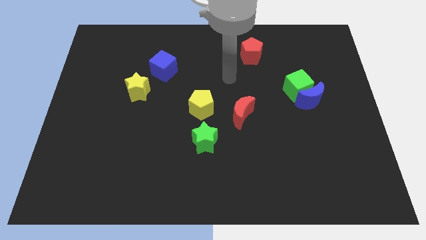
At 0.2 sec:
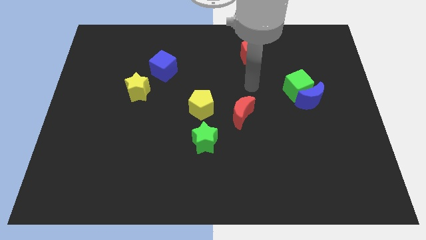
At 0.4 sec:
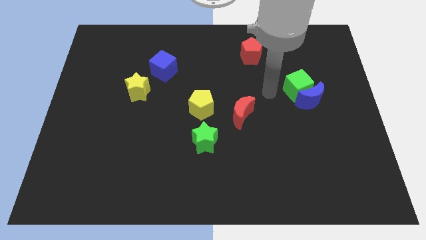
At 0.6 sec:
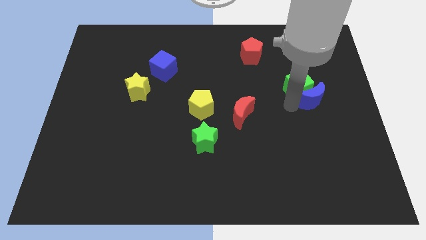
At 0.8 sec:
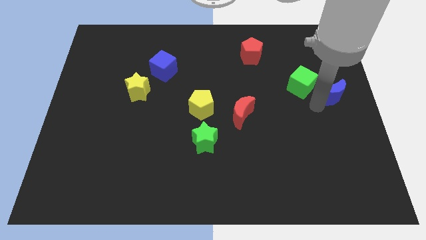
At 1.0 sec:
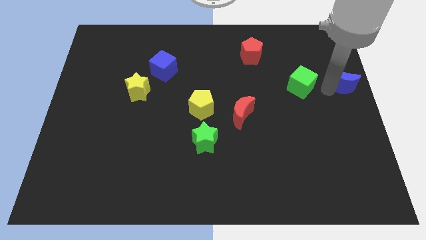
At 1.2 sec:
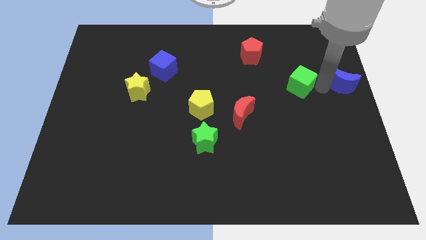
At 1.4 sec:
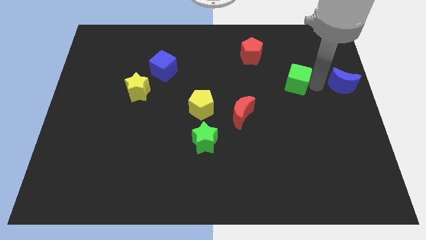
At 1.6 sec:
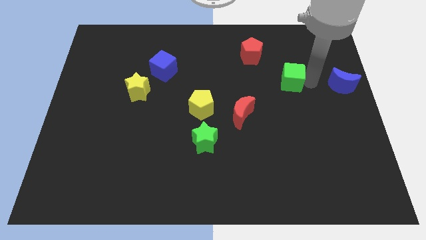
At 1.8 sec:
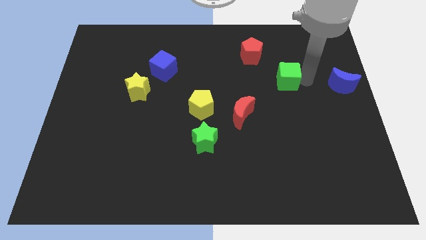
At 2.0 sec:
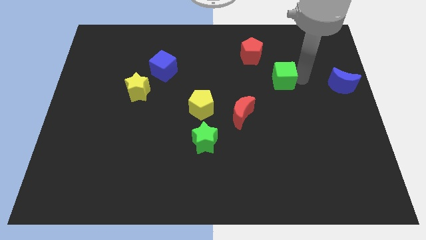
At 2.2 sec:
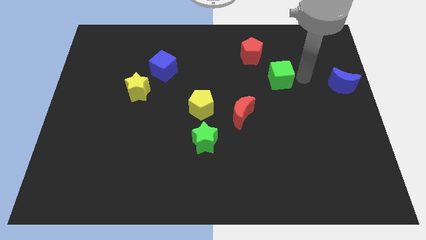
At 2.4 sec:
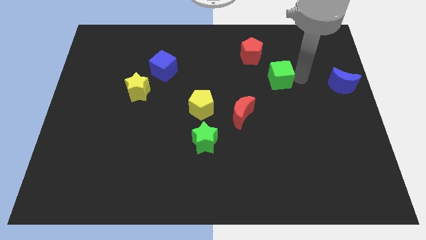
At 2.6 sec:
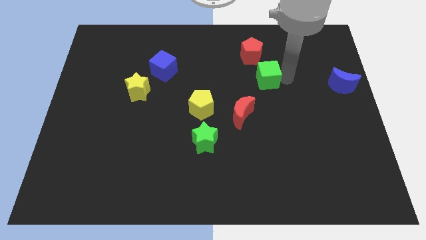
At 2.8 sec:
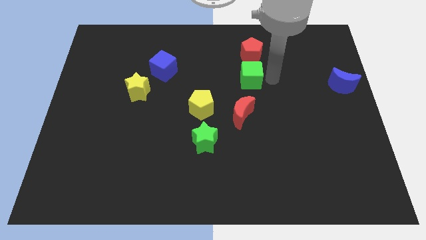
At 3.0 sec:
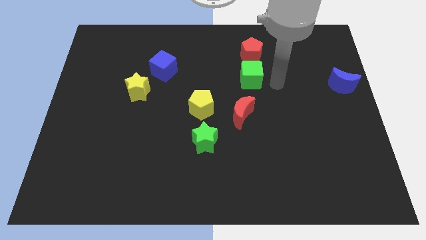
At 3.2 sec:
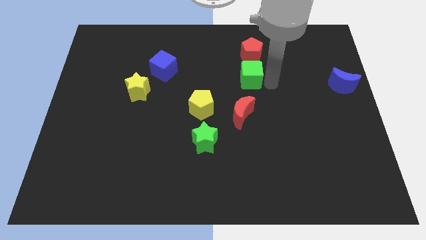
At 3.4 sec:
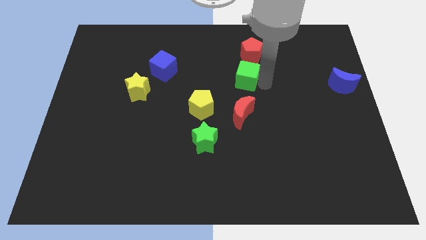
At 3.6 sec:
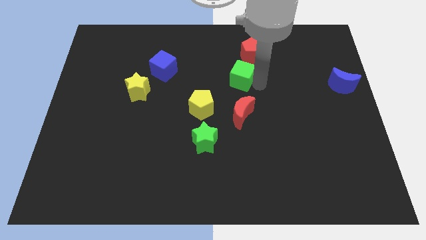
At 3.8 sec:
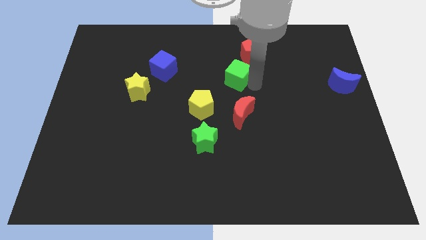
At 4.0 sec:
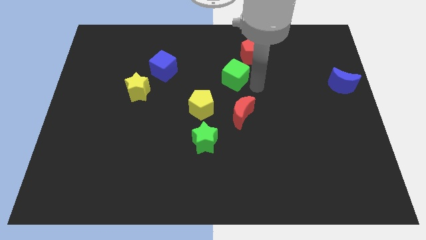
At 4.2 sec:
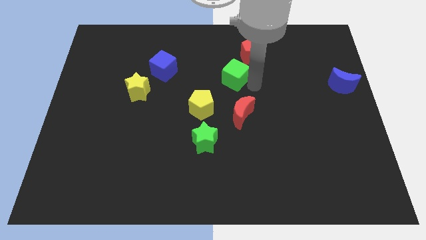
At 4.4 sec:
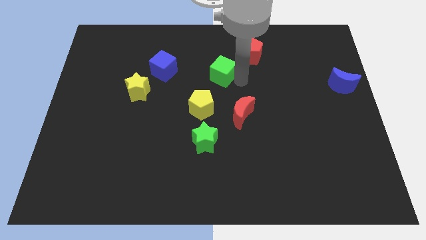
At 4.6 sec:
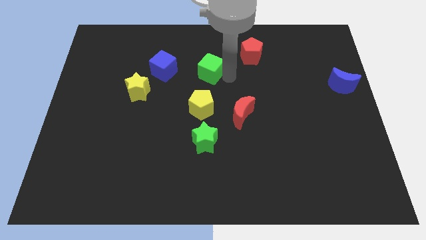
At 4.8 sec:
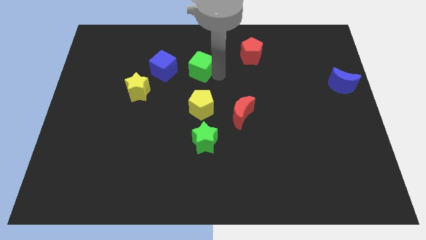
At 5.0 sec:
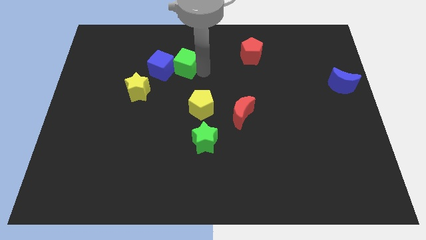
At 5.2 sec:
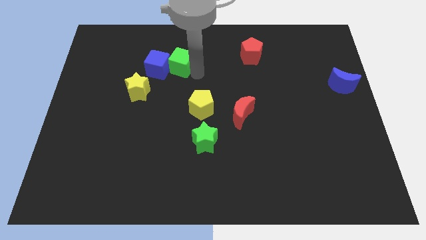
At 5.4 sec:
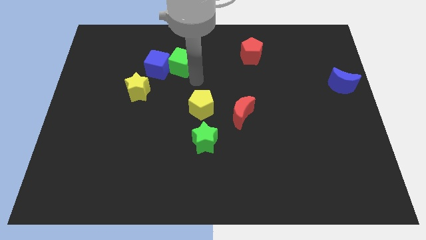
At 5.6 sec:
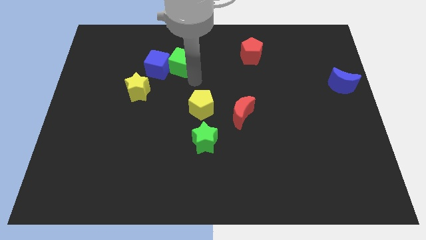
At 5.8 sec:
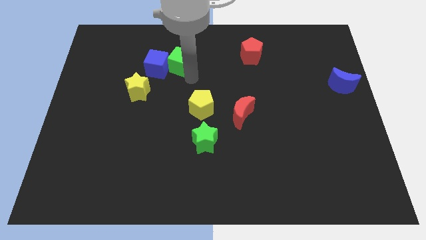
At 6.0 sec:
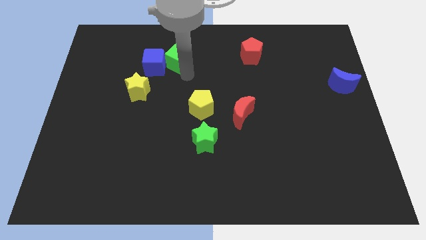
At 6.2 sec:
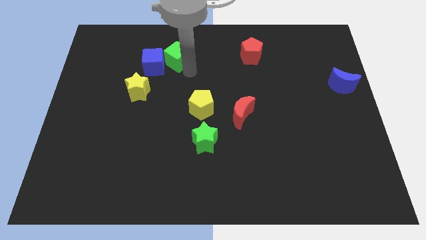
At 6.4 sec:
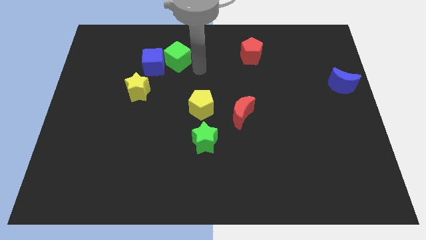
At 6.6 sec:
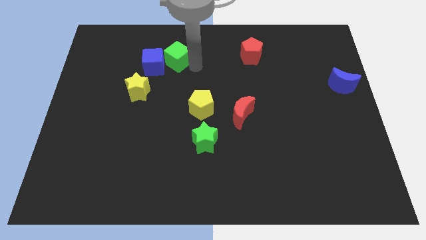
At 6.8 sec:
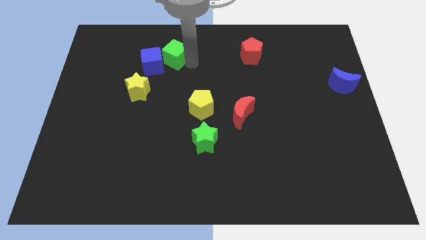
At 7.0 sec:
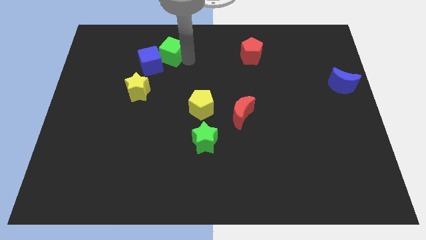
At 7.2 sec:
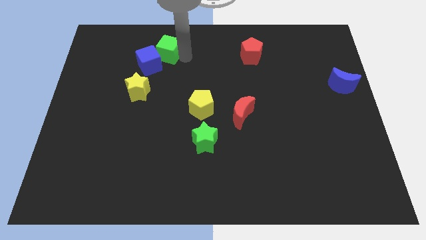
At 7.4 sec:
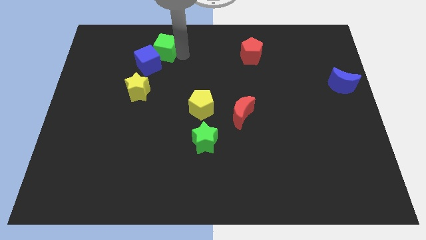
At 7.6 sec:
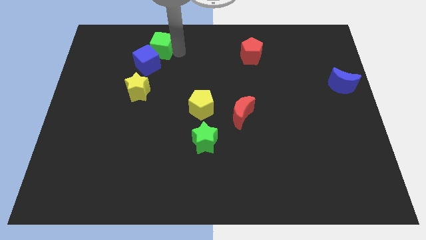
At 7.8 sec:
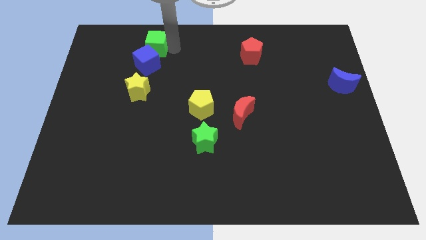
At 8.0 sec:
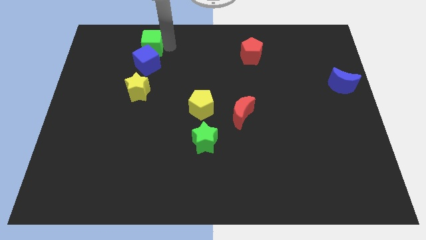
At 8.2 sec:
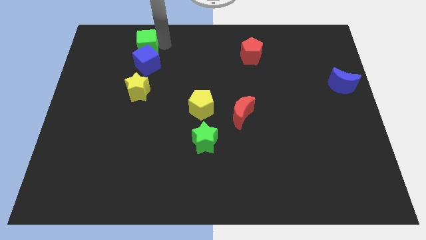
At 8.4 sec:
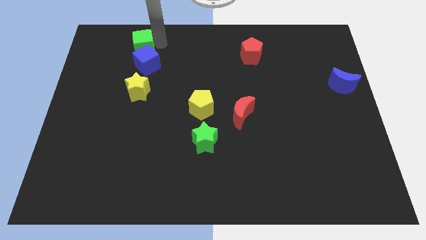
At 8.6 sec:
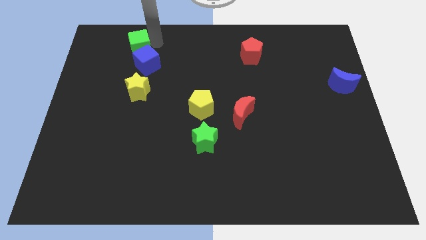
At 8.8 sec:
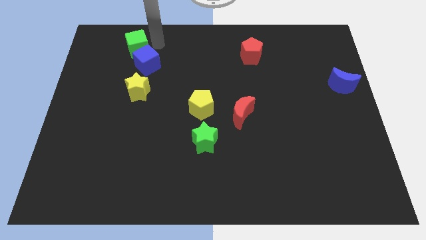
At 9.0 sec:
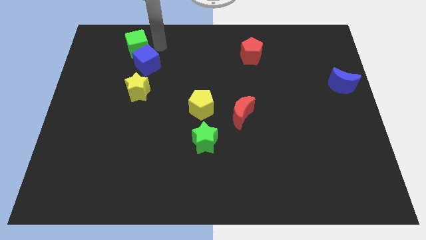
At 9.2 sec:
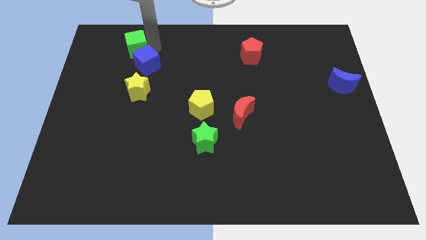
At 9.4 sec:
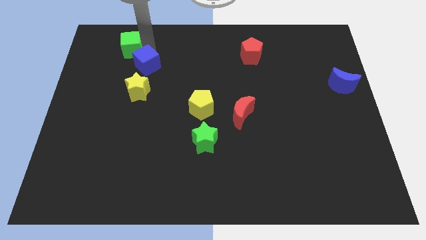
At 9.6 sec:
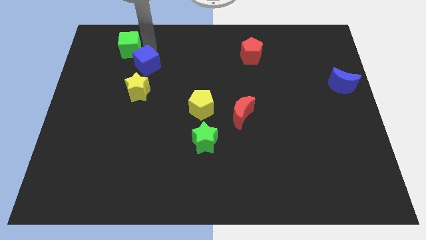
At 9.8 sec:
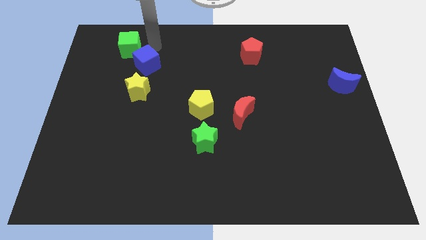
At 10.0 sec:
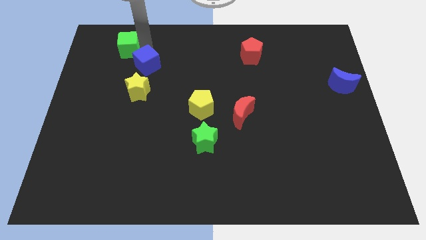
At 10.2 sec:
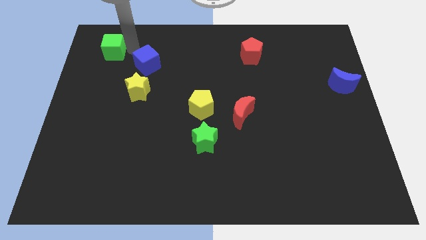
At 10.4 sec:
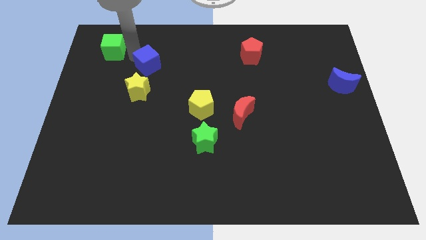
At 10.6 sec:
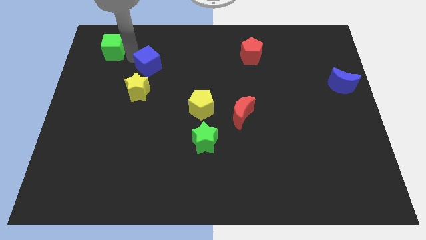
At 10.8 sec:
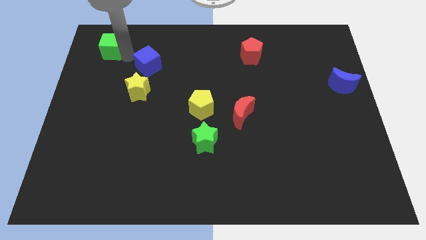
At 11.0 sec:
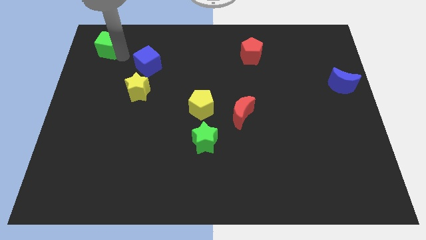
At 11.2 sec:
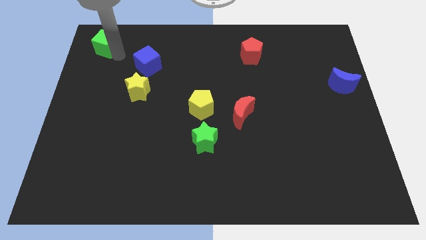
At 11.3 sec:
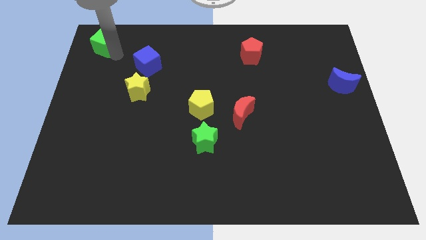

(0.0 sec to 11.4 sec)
push the green cube to the top left of the board
